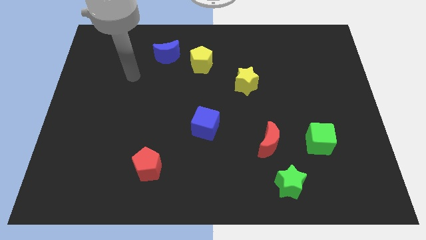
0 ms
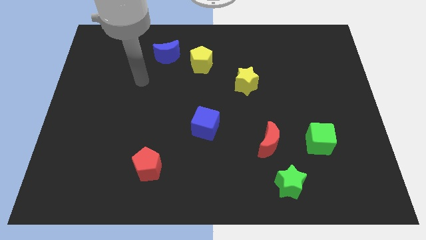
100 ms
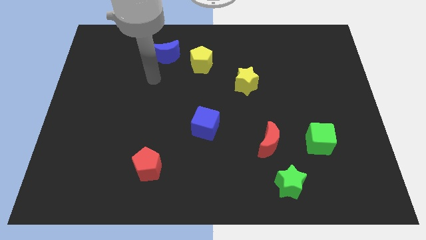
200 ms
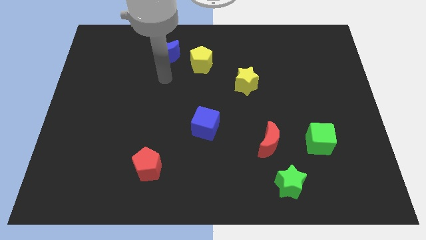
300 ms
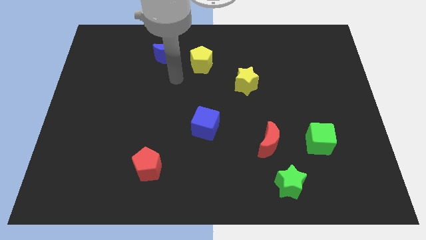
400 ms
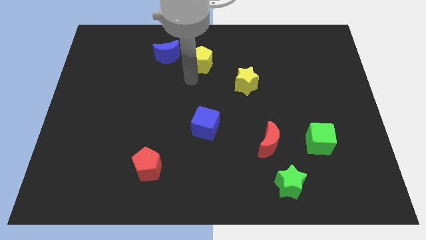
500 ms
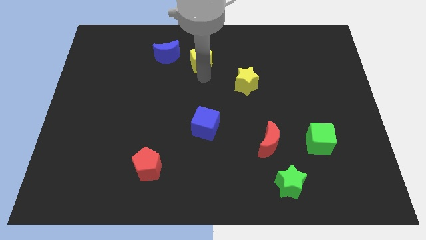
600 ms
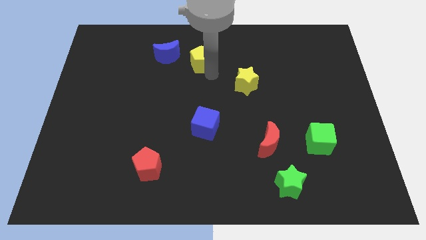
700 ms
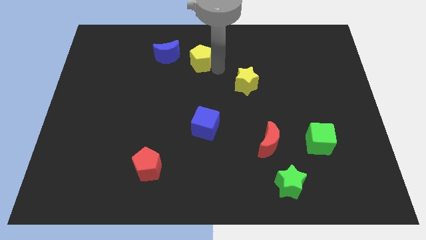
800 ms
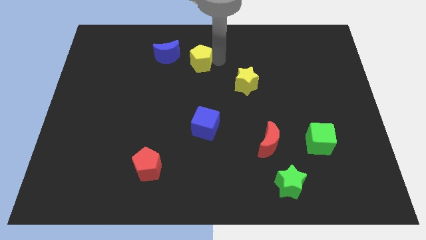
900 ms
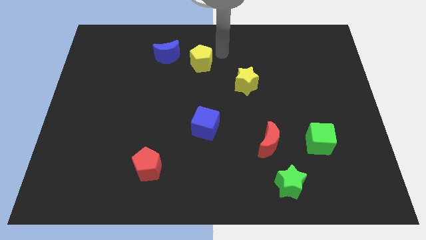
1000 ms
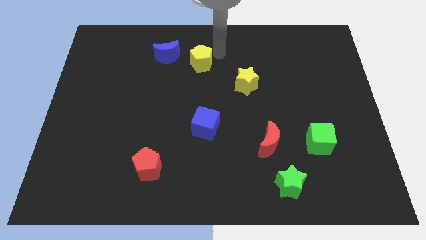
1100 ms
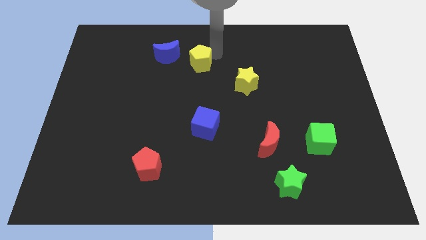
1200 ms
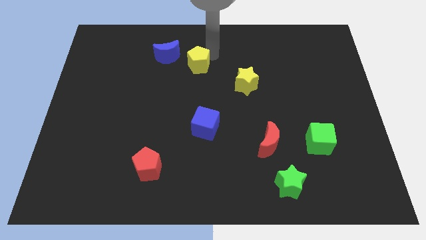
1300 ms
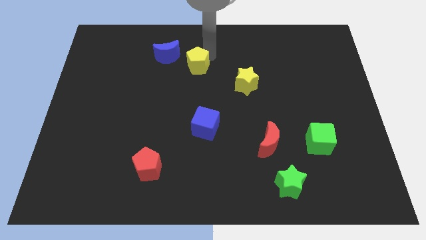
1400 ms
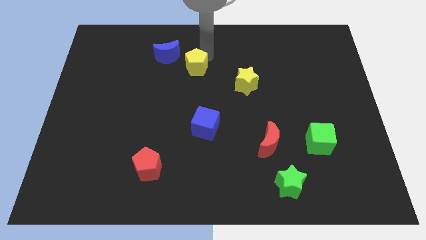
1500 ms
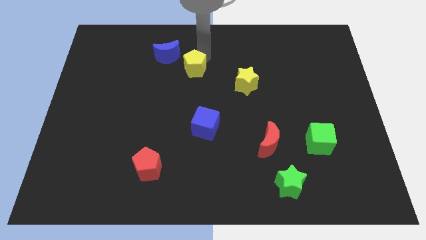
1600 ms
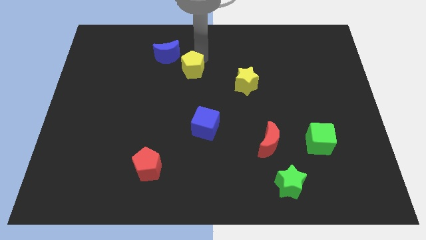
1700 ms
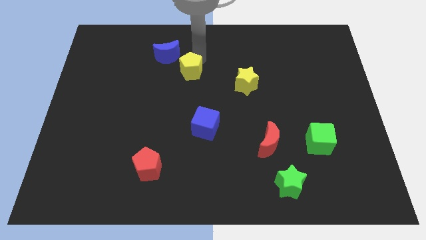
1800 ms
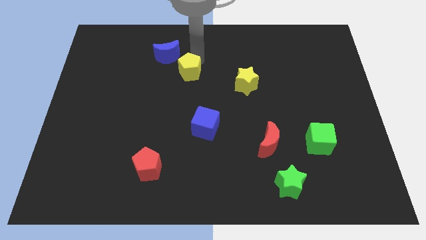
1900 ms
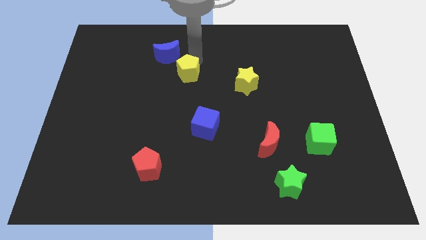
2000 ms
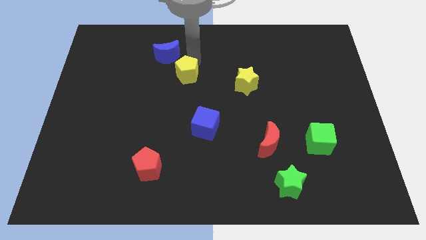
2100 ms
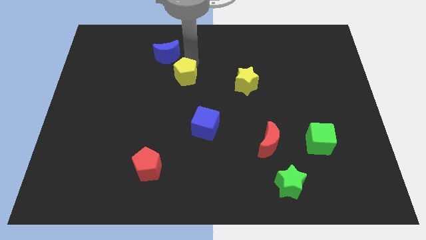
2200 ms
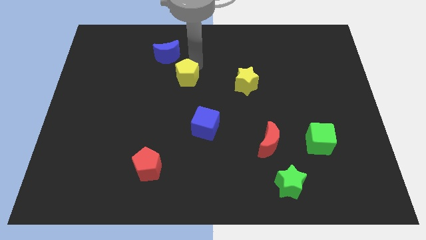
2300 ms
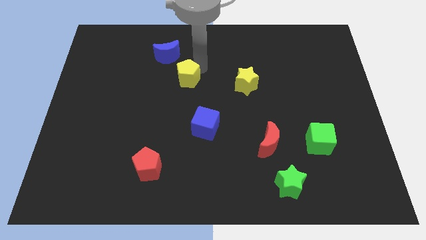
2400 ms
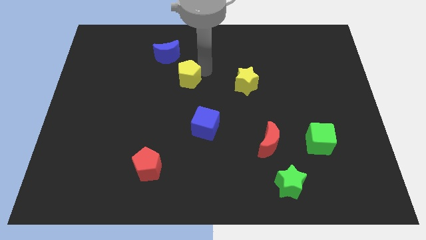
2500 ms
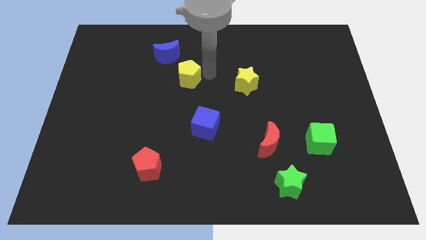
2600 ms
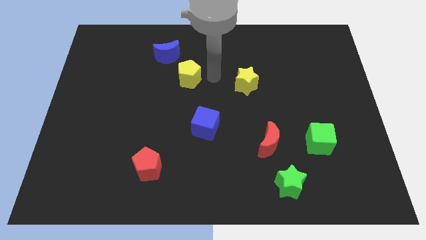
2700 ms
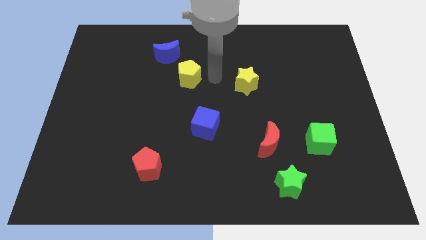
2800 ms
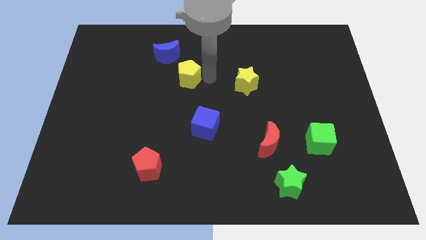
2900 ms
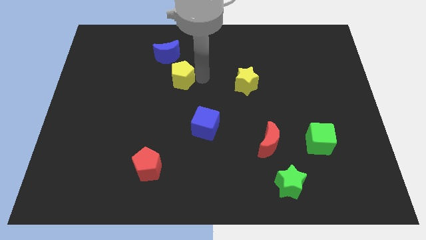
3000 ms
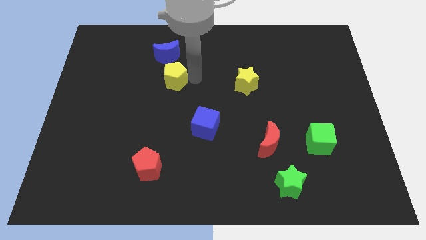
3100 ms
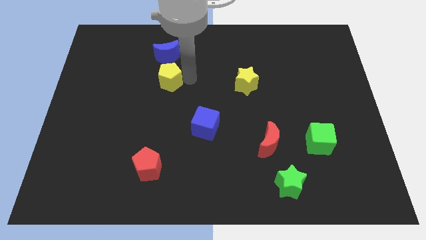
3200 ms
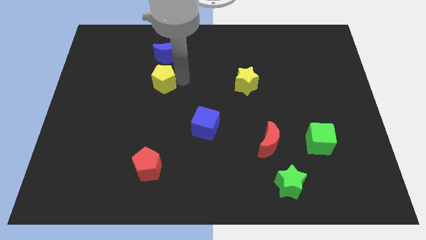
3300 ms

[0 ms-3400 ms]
move the yellow pentagon left slightly

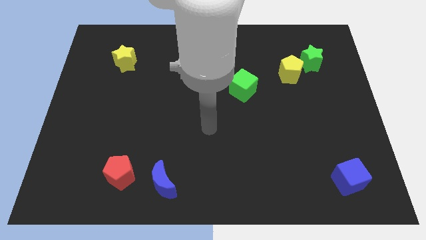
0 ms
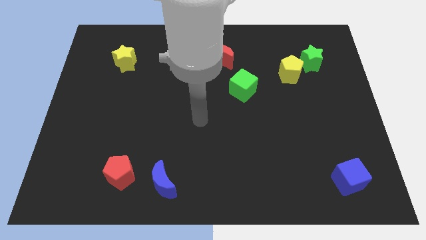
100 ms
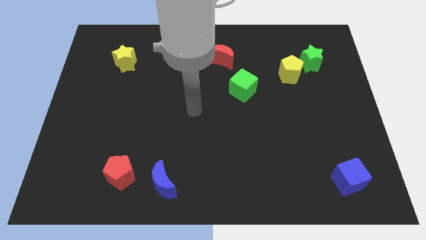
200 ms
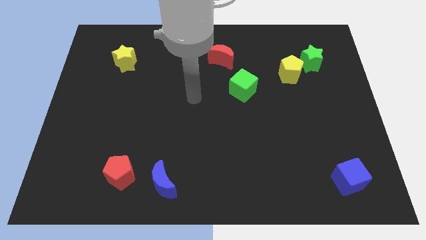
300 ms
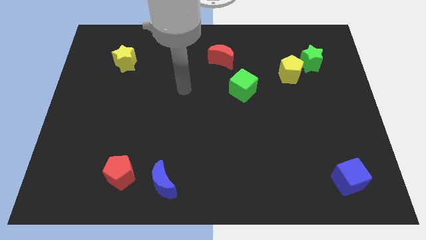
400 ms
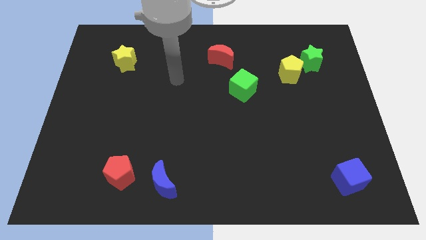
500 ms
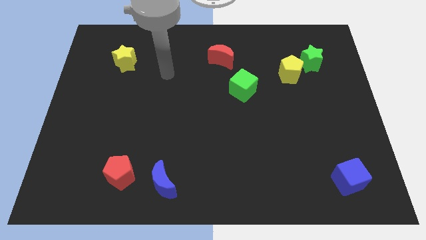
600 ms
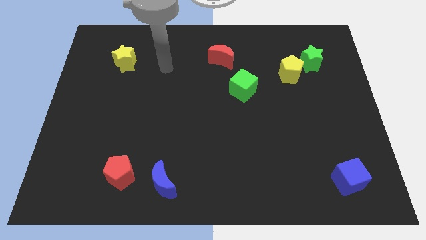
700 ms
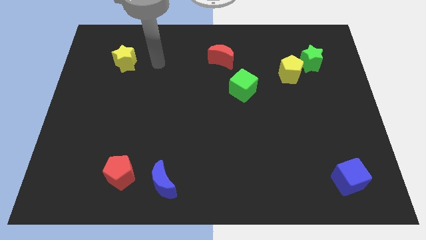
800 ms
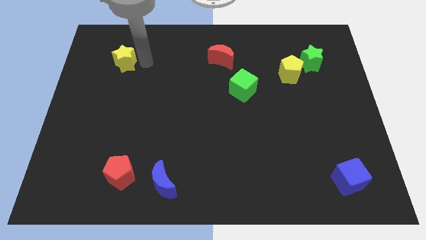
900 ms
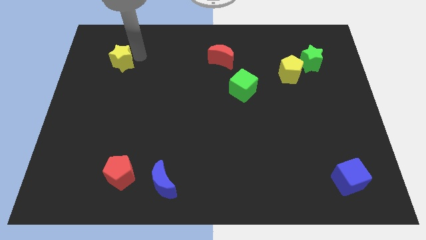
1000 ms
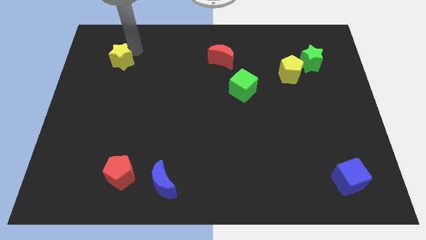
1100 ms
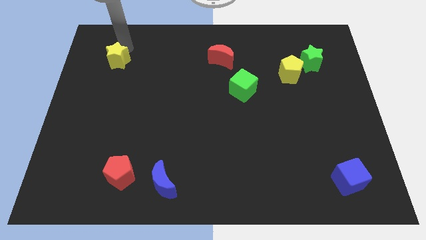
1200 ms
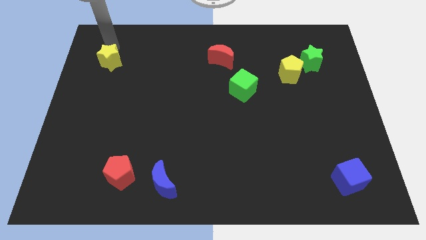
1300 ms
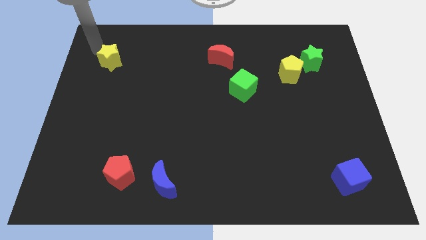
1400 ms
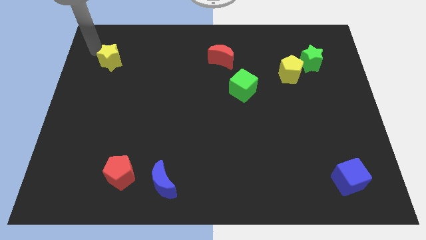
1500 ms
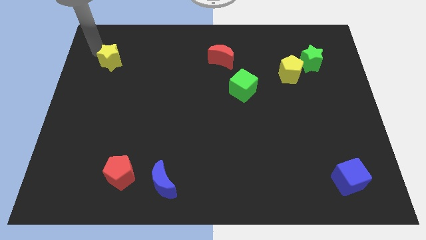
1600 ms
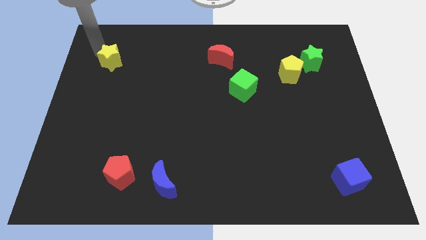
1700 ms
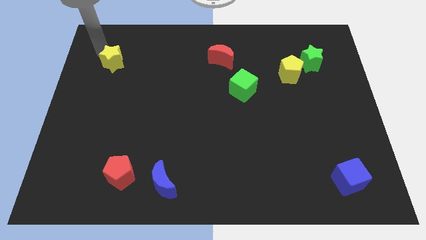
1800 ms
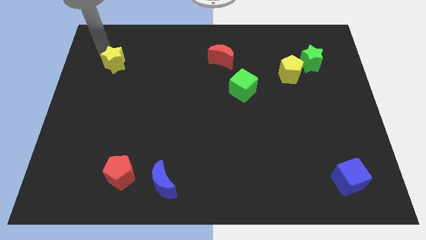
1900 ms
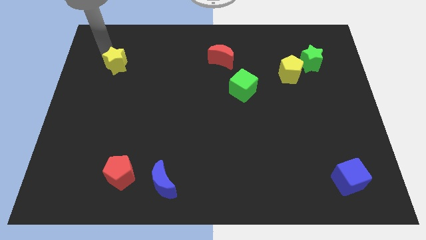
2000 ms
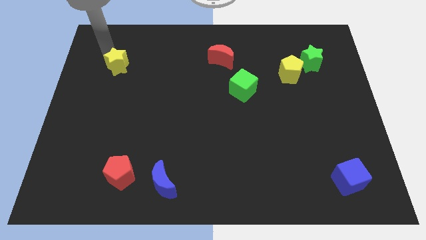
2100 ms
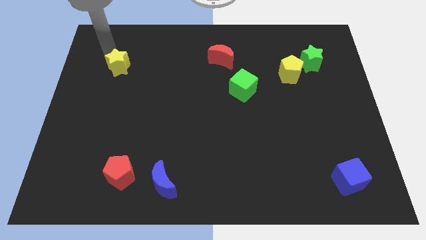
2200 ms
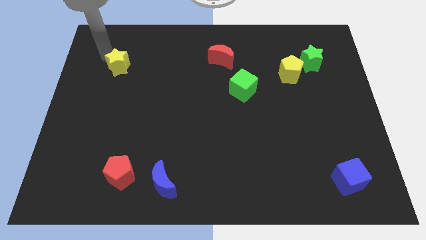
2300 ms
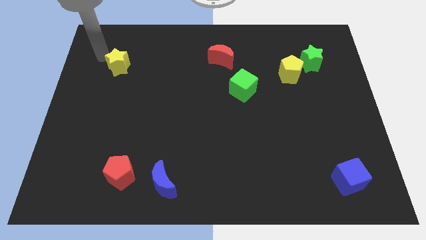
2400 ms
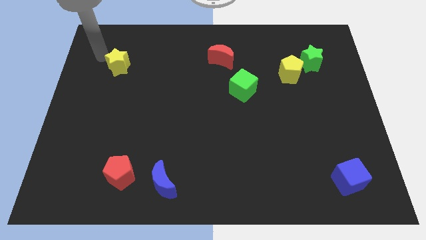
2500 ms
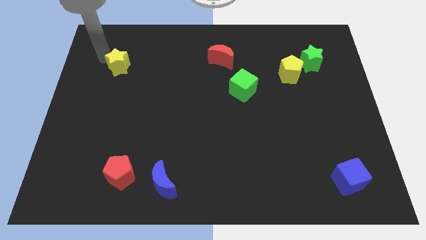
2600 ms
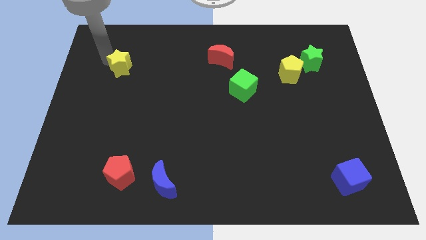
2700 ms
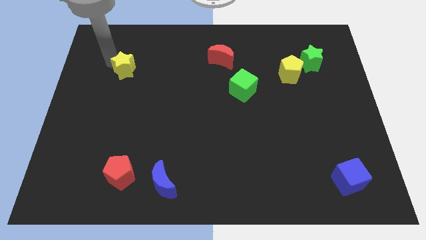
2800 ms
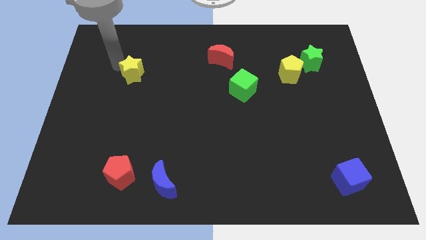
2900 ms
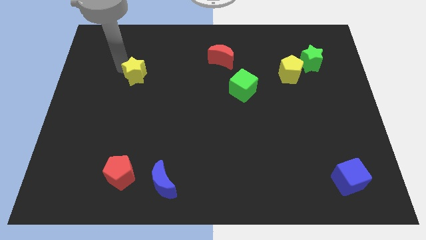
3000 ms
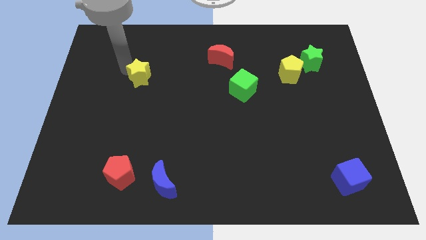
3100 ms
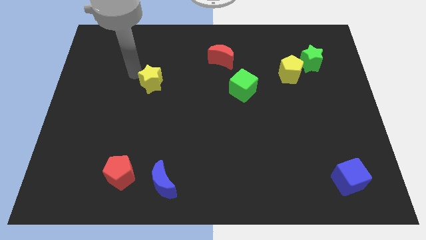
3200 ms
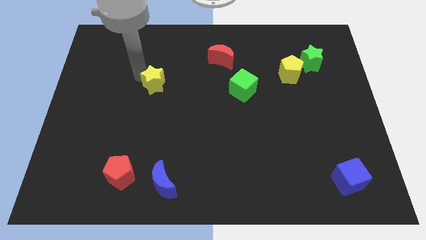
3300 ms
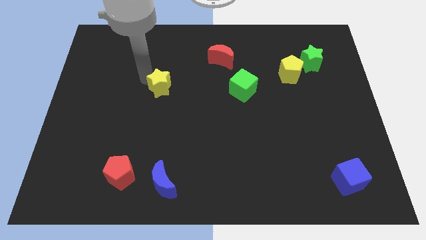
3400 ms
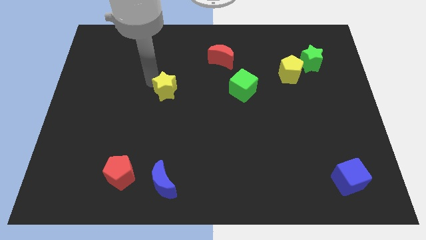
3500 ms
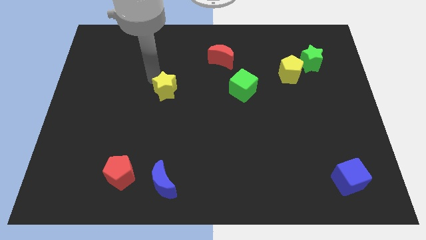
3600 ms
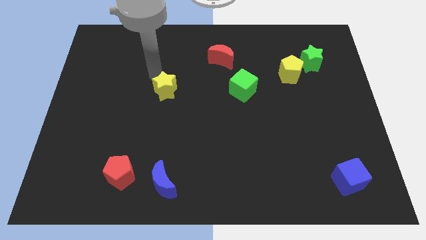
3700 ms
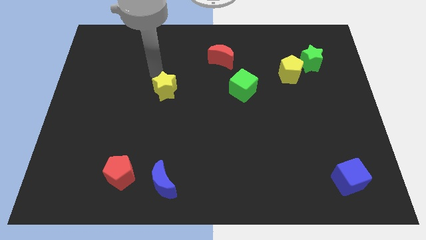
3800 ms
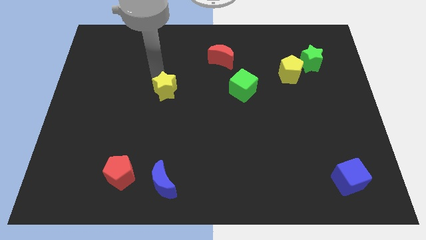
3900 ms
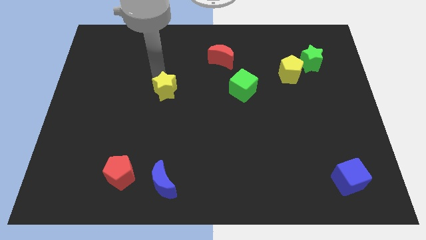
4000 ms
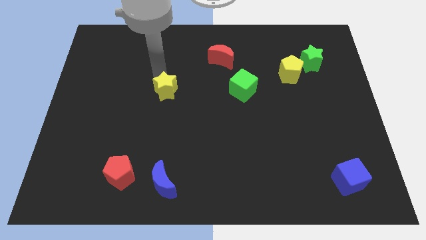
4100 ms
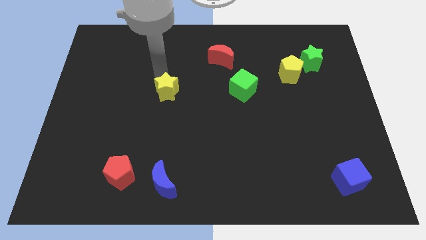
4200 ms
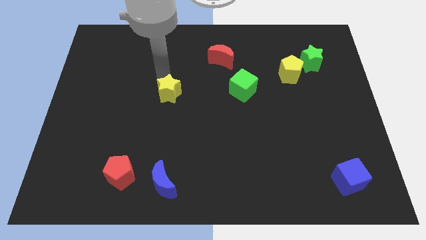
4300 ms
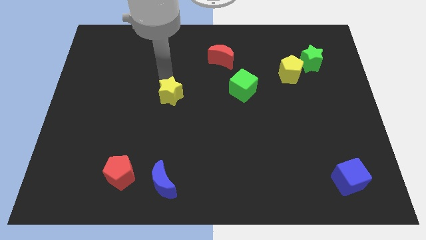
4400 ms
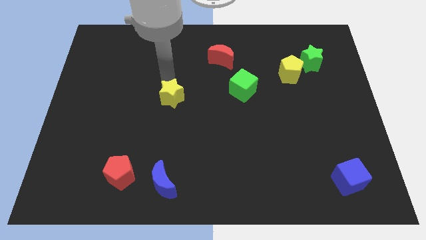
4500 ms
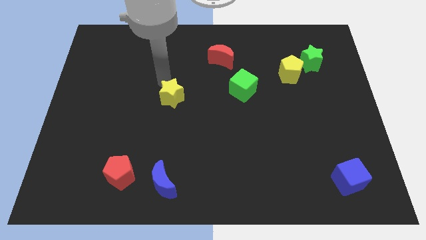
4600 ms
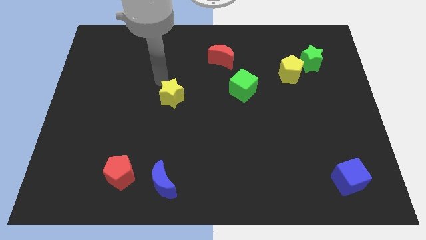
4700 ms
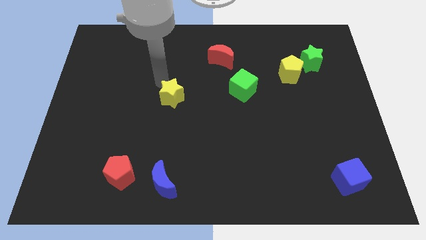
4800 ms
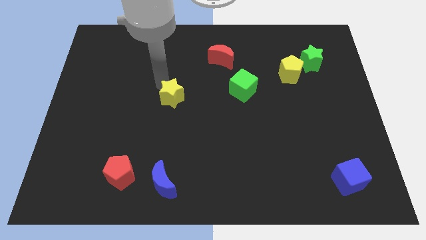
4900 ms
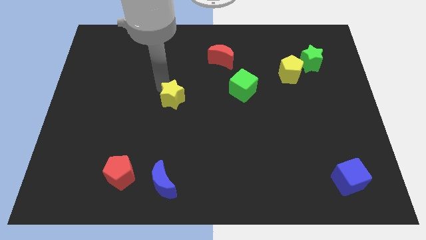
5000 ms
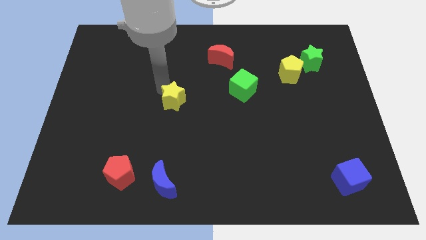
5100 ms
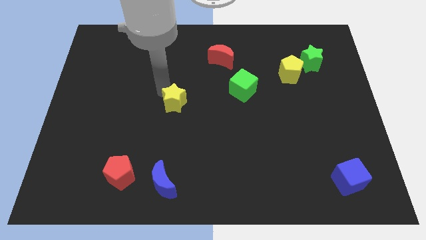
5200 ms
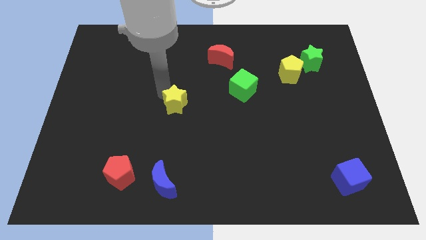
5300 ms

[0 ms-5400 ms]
slide the yellow star down and to the right
